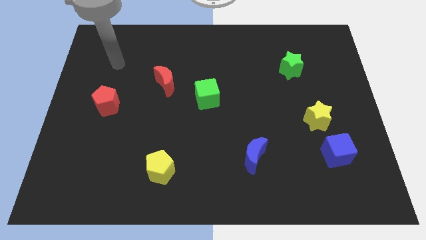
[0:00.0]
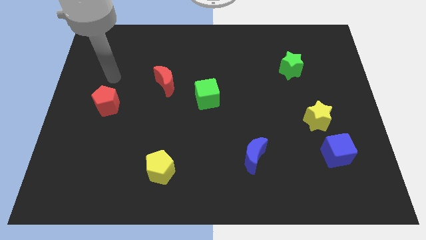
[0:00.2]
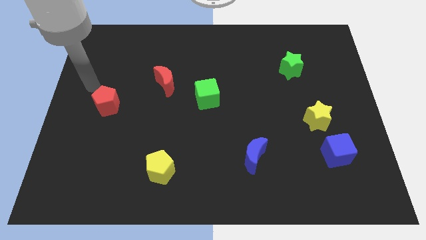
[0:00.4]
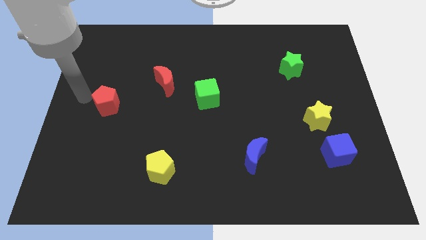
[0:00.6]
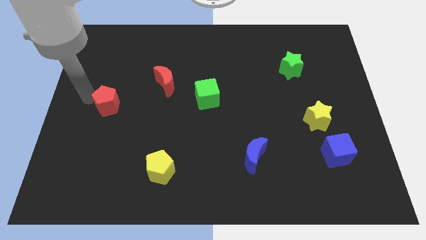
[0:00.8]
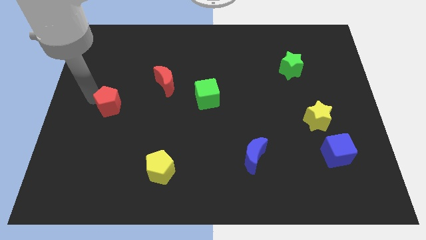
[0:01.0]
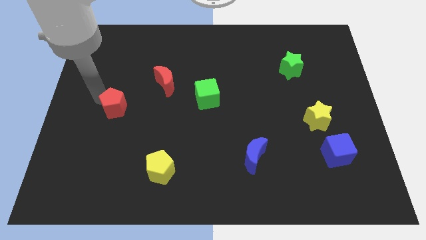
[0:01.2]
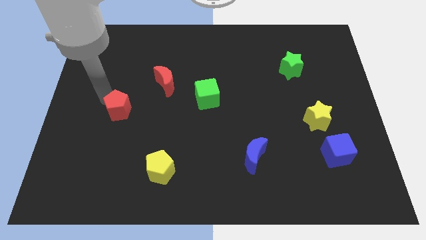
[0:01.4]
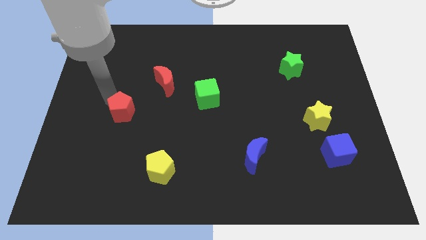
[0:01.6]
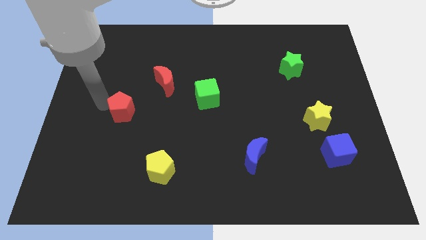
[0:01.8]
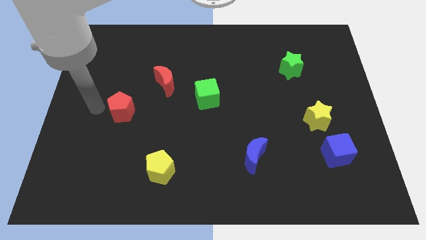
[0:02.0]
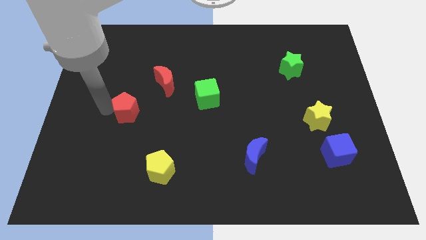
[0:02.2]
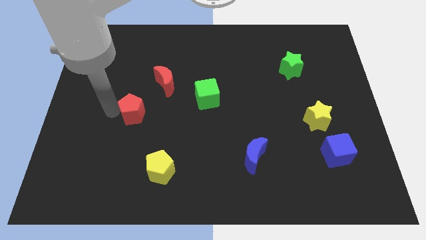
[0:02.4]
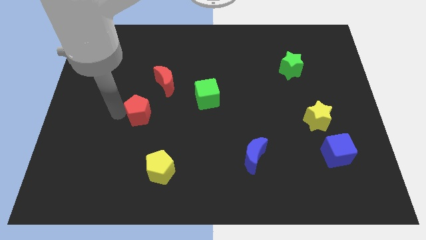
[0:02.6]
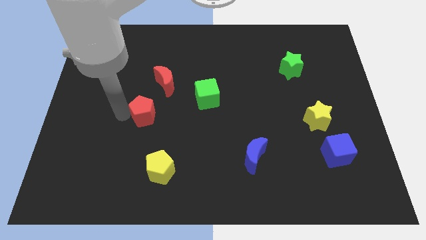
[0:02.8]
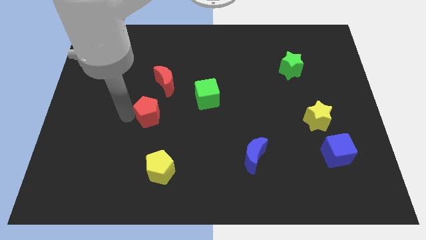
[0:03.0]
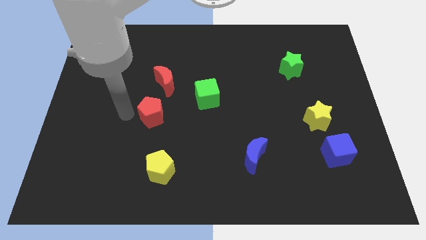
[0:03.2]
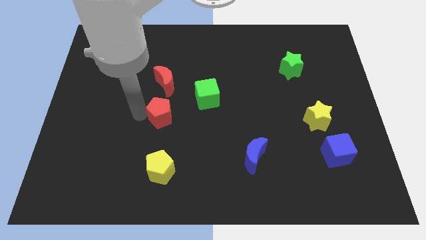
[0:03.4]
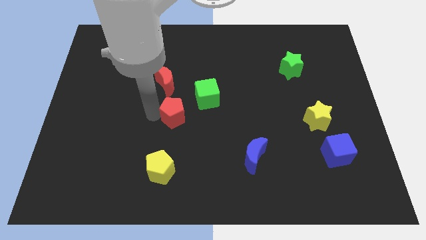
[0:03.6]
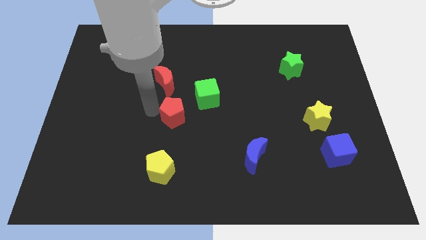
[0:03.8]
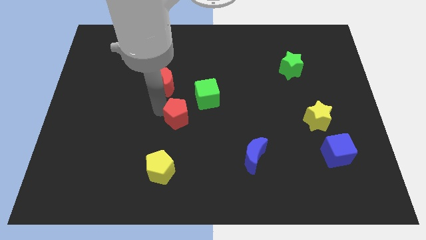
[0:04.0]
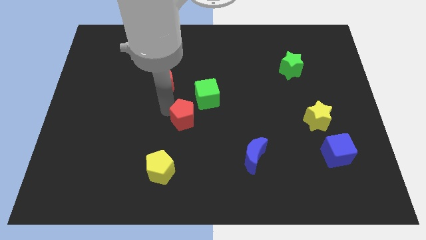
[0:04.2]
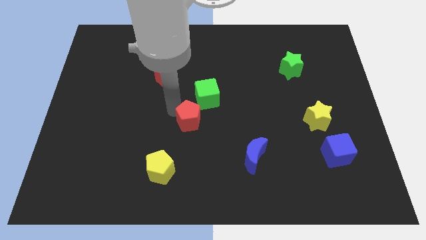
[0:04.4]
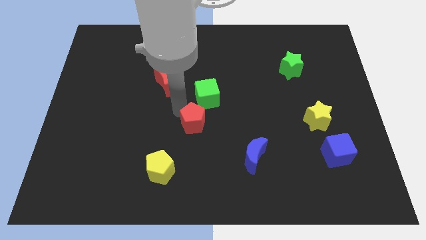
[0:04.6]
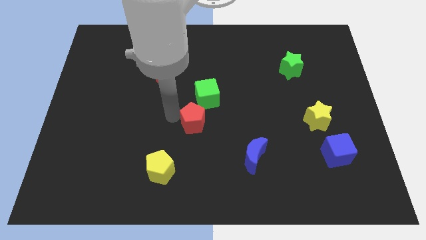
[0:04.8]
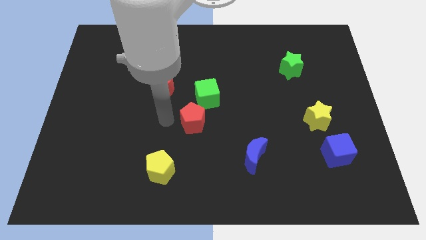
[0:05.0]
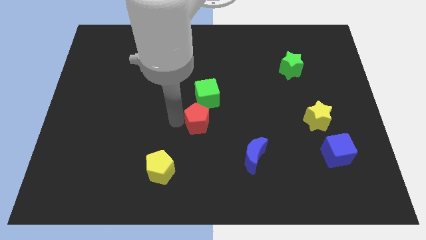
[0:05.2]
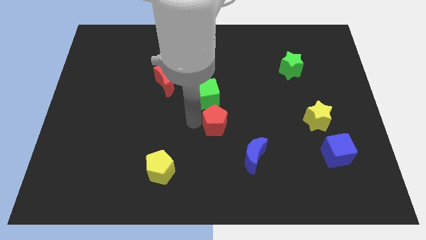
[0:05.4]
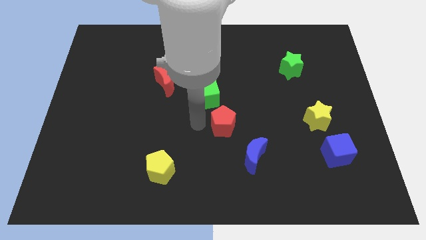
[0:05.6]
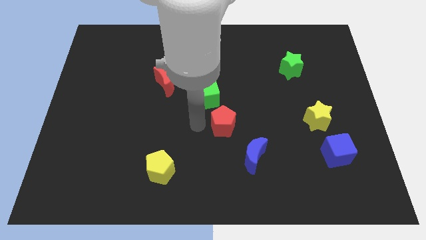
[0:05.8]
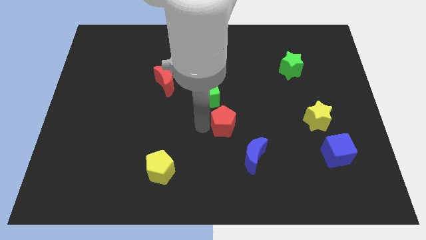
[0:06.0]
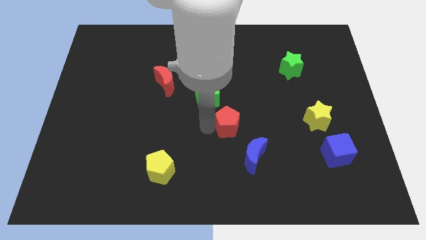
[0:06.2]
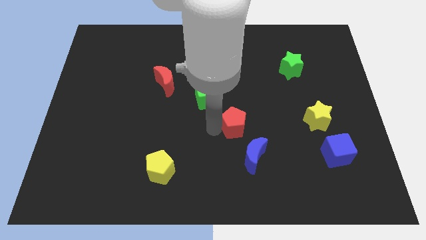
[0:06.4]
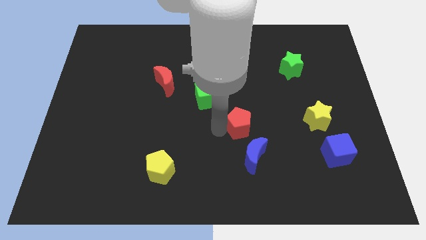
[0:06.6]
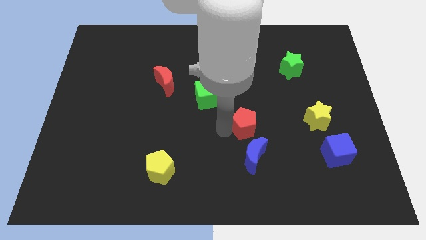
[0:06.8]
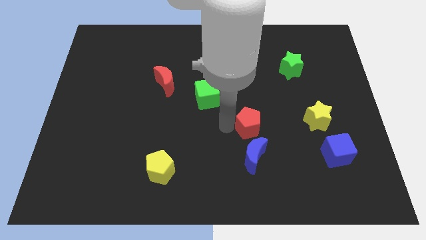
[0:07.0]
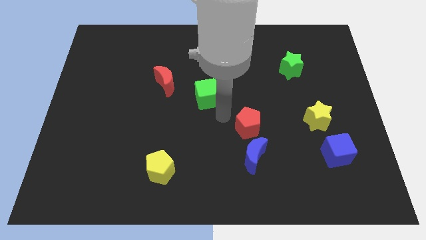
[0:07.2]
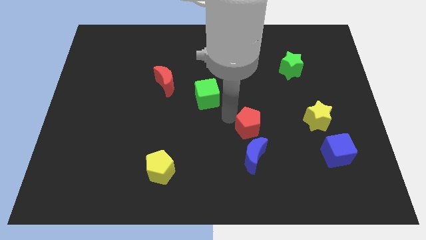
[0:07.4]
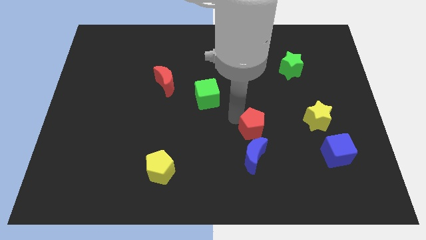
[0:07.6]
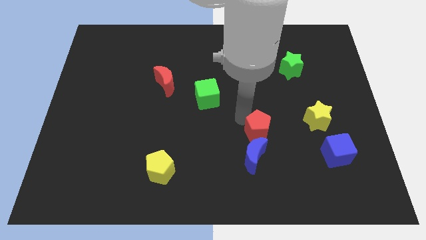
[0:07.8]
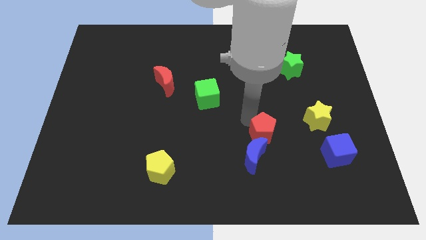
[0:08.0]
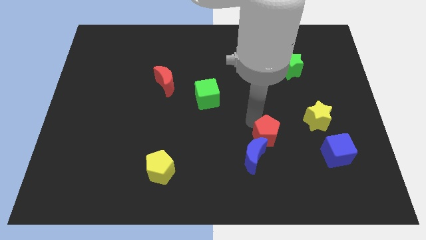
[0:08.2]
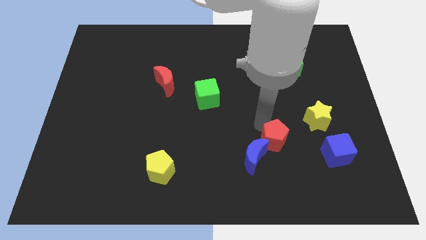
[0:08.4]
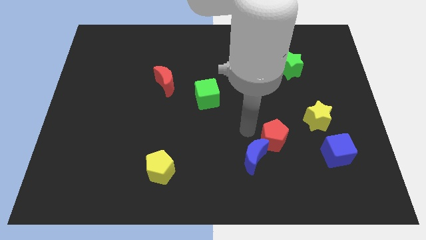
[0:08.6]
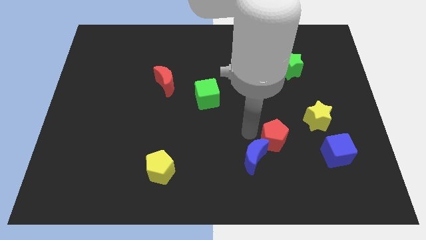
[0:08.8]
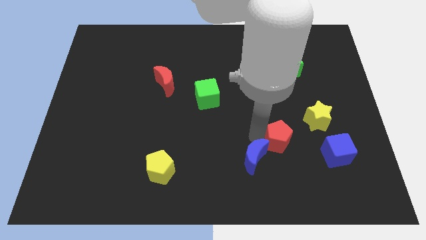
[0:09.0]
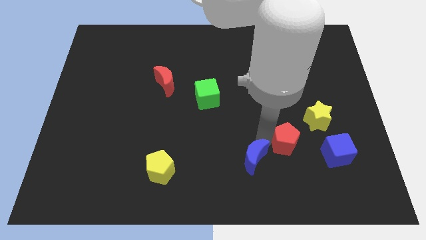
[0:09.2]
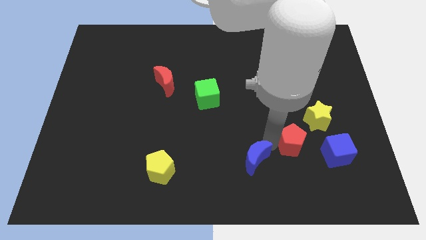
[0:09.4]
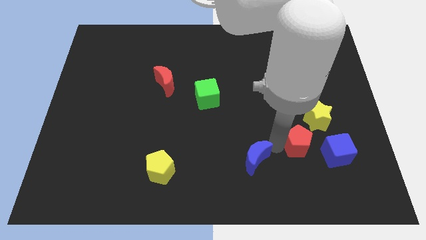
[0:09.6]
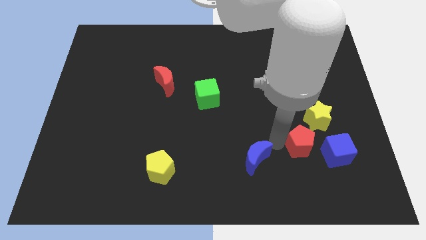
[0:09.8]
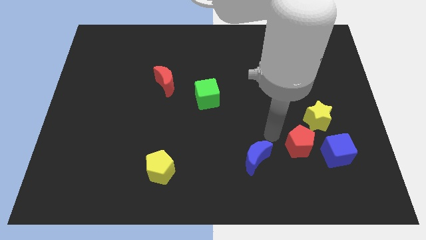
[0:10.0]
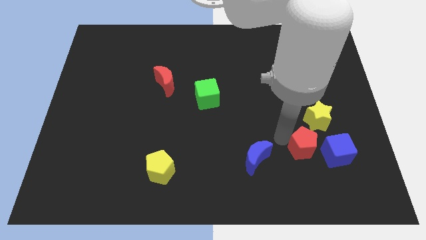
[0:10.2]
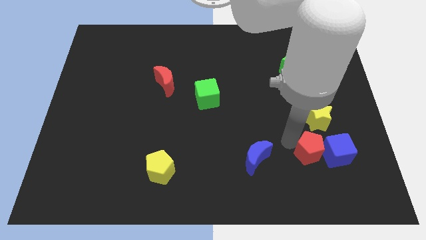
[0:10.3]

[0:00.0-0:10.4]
push the red pentagon towards the blue cube

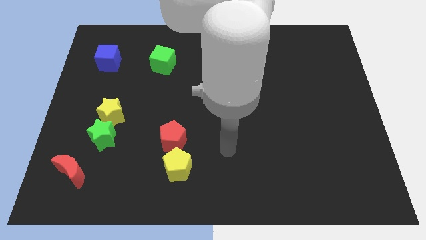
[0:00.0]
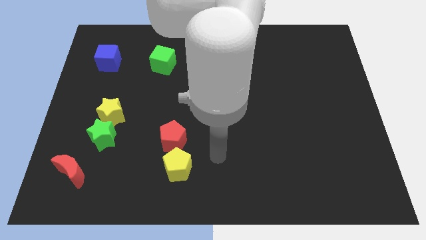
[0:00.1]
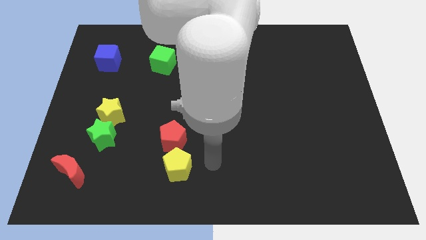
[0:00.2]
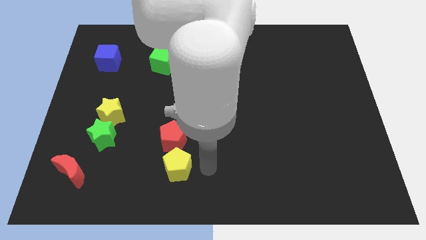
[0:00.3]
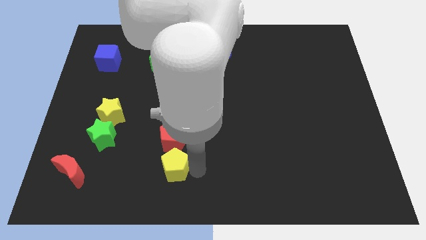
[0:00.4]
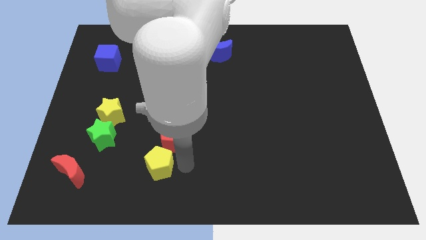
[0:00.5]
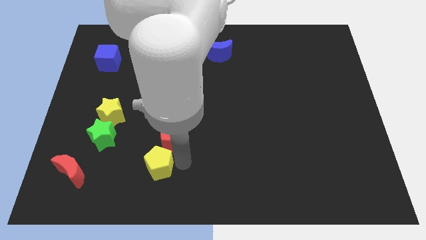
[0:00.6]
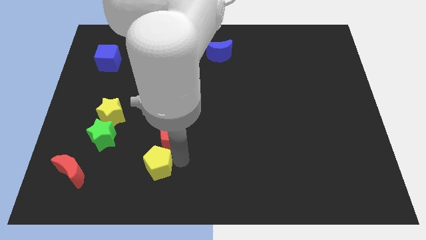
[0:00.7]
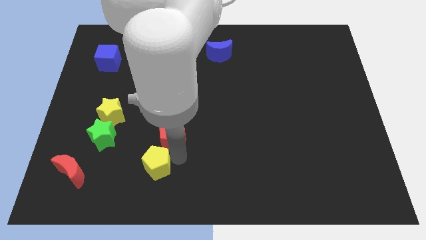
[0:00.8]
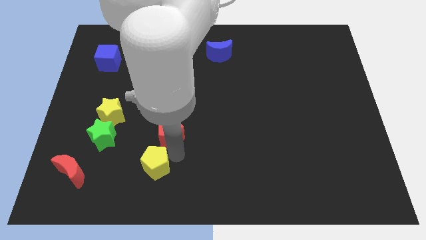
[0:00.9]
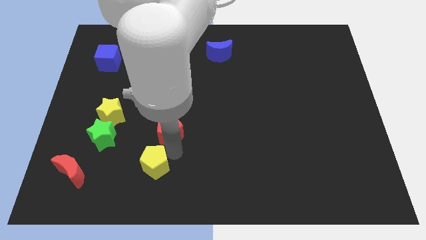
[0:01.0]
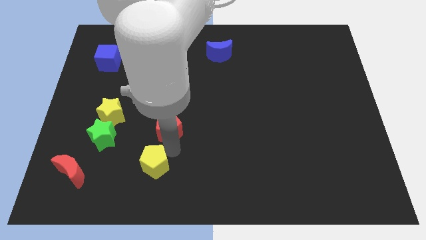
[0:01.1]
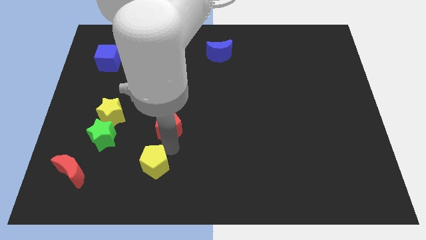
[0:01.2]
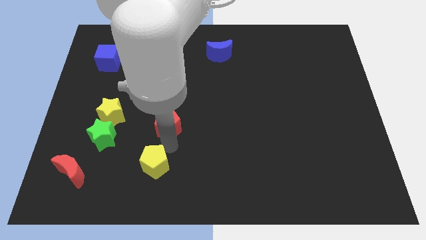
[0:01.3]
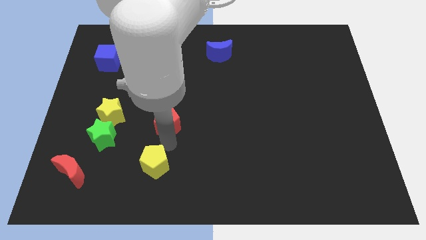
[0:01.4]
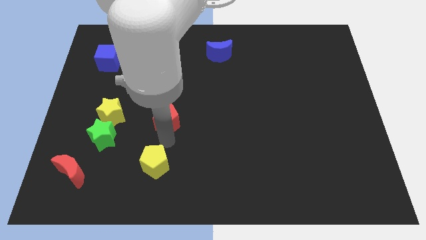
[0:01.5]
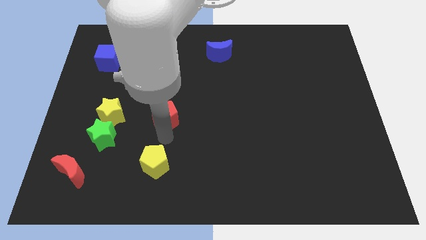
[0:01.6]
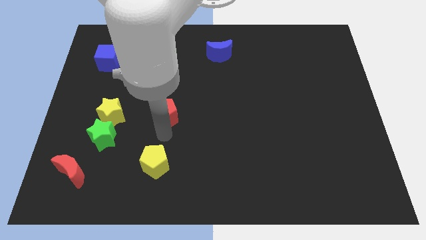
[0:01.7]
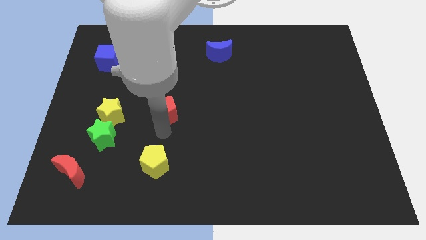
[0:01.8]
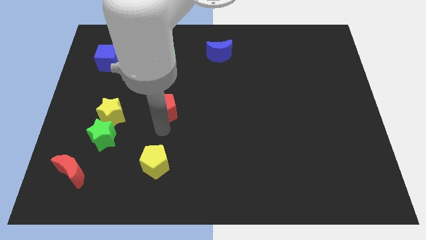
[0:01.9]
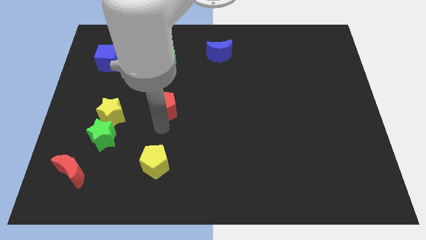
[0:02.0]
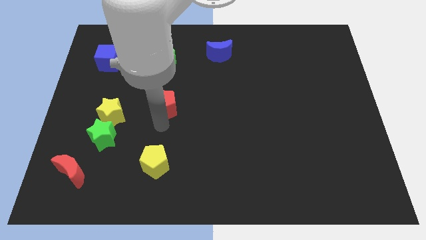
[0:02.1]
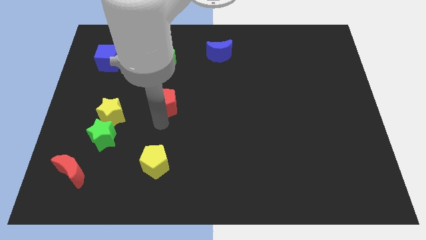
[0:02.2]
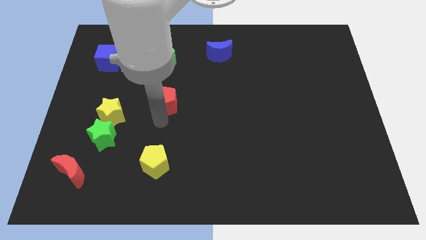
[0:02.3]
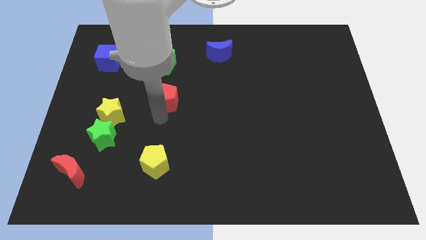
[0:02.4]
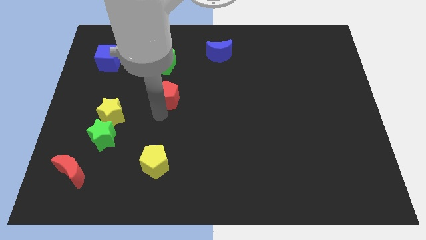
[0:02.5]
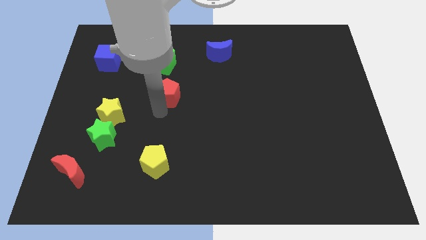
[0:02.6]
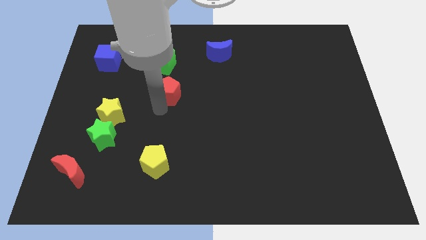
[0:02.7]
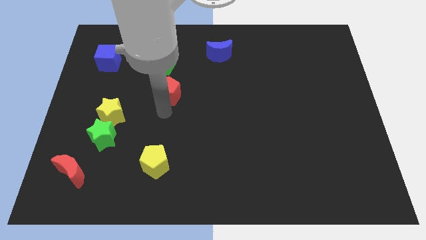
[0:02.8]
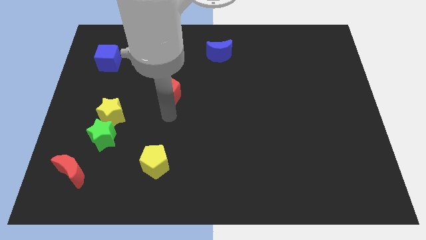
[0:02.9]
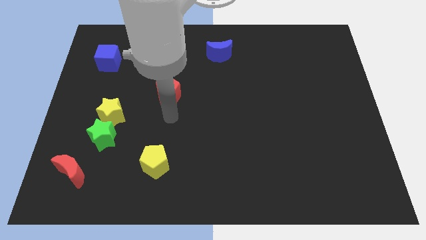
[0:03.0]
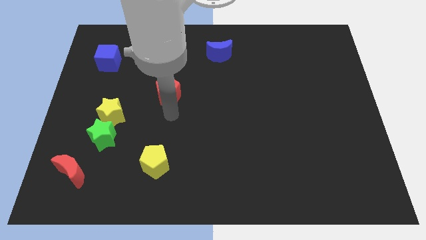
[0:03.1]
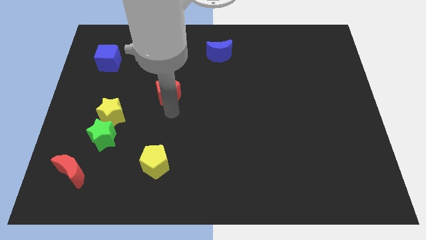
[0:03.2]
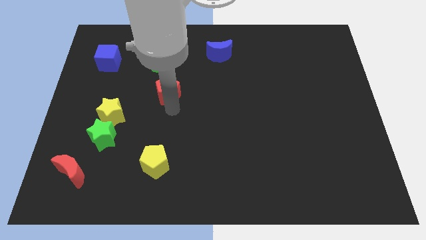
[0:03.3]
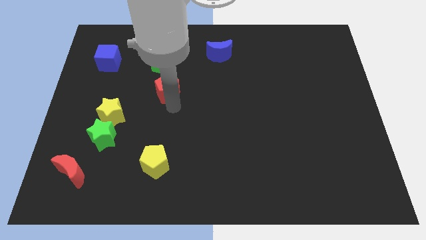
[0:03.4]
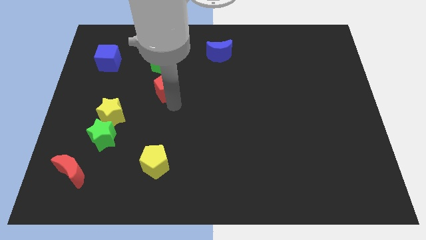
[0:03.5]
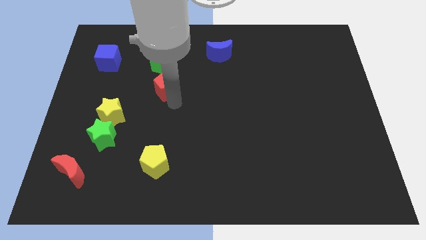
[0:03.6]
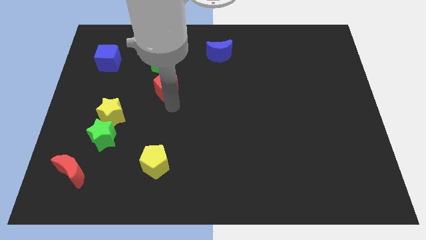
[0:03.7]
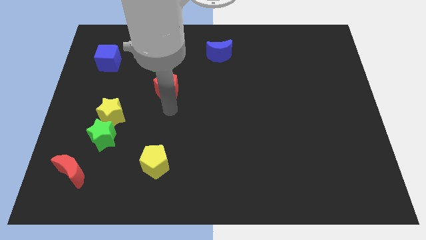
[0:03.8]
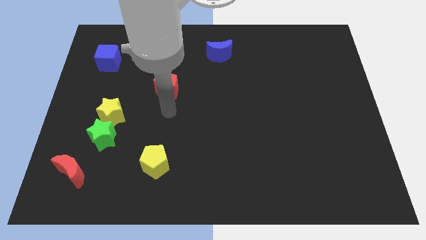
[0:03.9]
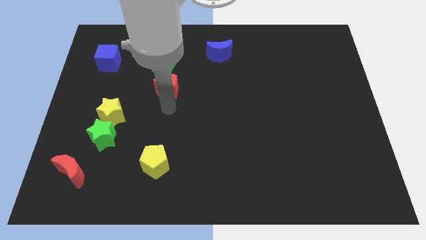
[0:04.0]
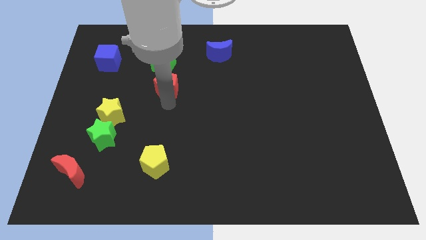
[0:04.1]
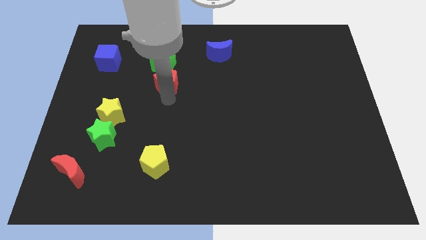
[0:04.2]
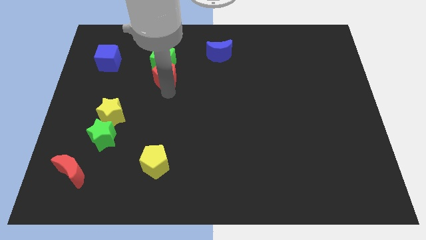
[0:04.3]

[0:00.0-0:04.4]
put the red pentagon next to the green cube
